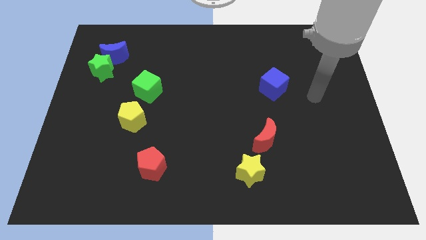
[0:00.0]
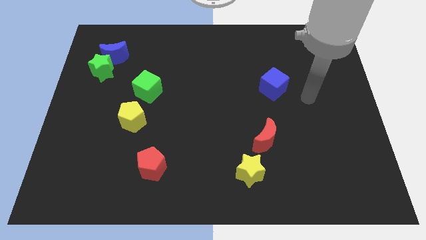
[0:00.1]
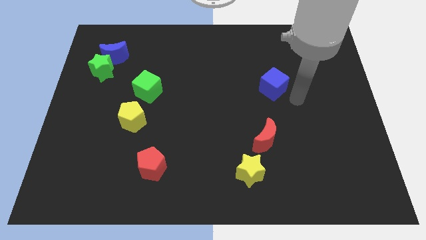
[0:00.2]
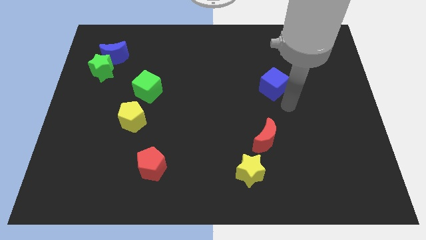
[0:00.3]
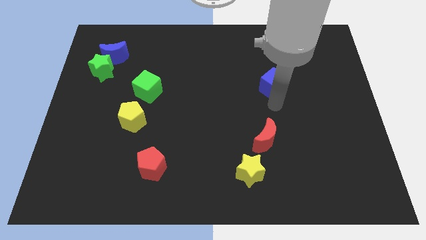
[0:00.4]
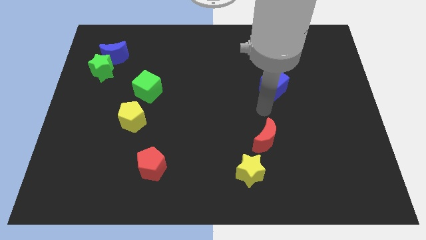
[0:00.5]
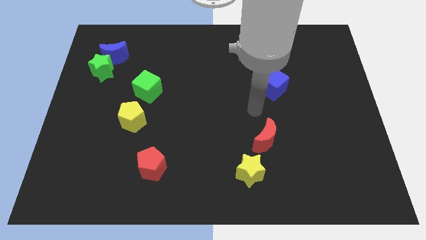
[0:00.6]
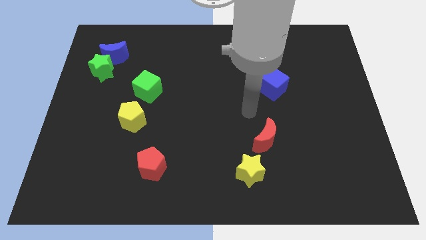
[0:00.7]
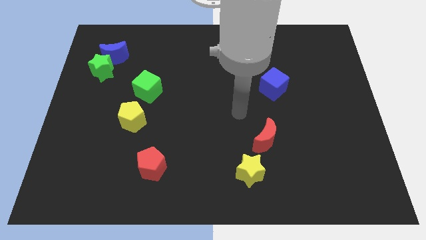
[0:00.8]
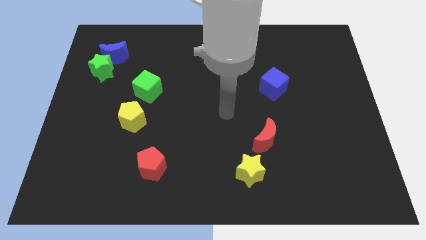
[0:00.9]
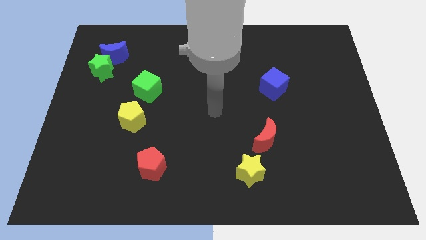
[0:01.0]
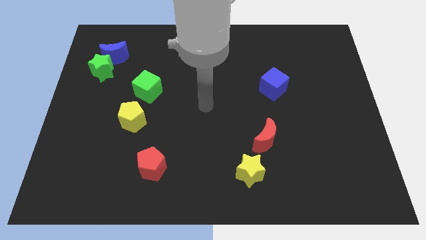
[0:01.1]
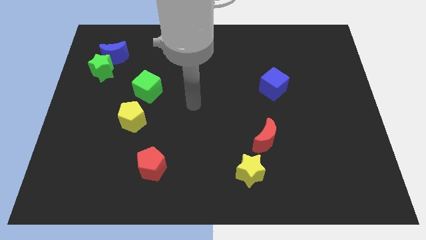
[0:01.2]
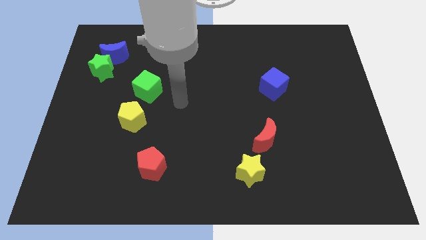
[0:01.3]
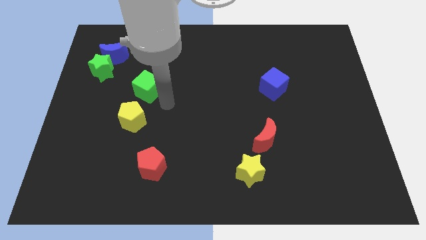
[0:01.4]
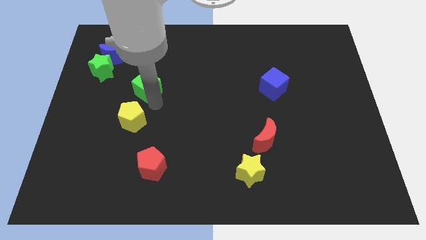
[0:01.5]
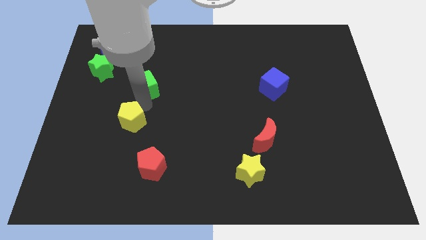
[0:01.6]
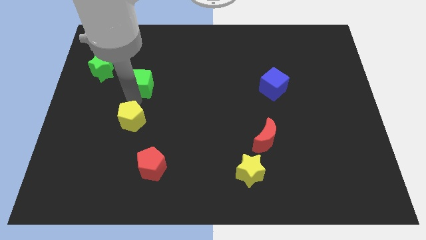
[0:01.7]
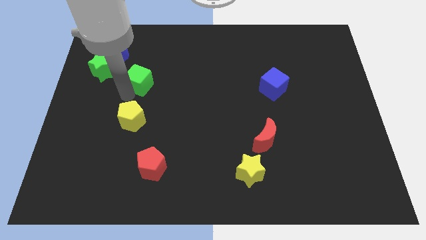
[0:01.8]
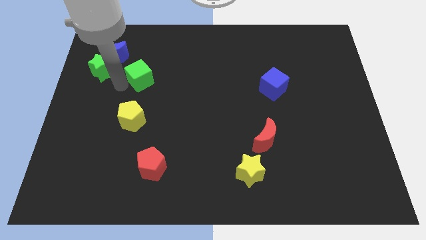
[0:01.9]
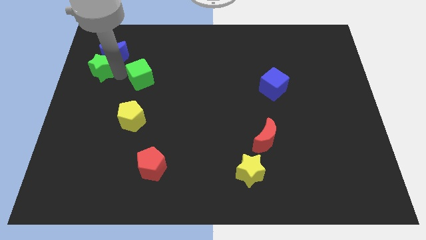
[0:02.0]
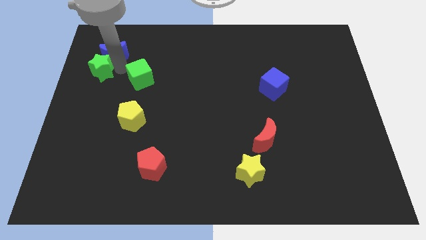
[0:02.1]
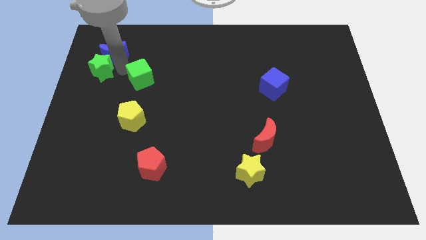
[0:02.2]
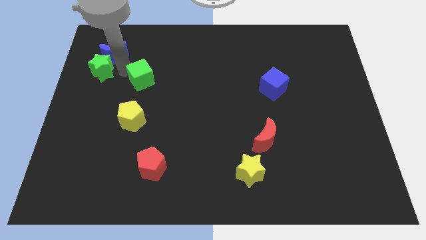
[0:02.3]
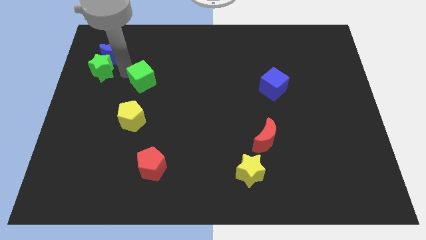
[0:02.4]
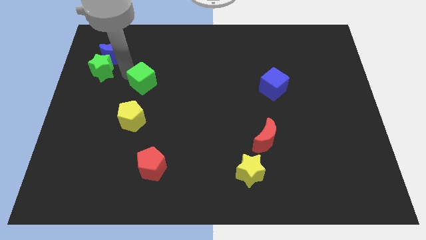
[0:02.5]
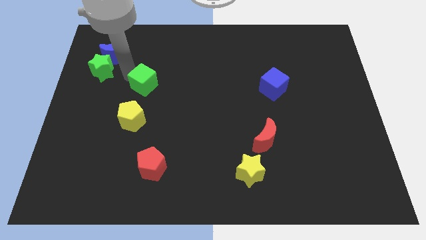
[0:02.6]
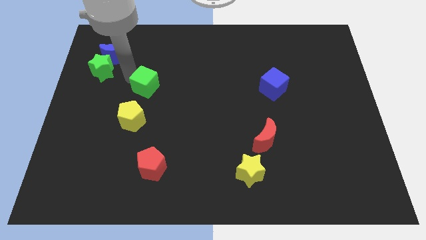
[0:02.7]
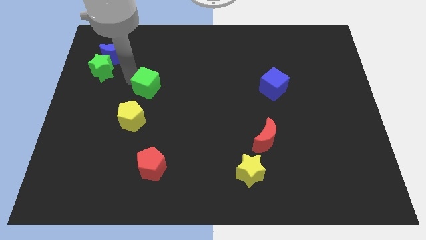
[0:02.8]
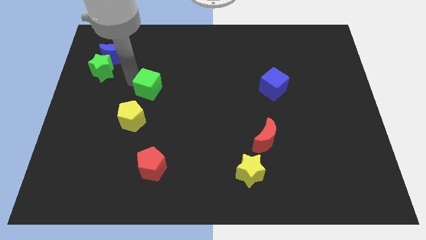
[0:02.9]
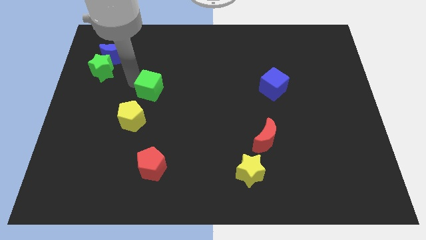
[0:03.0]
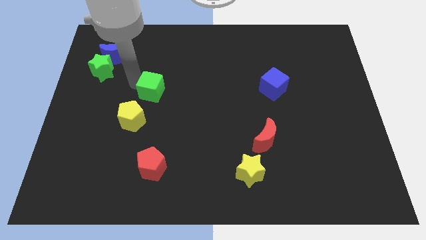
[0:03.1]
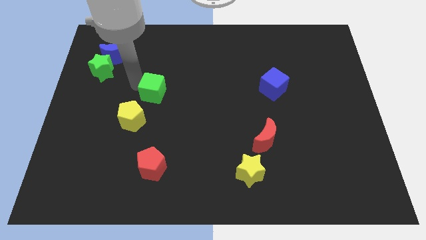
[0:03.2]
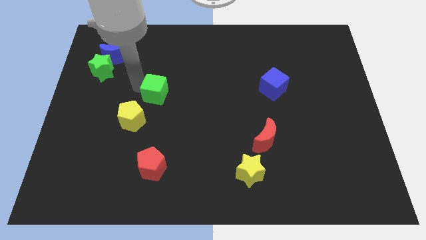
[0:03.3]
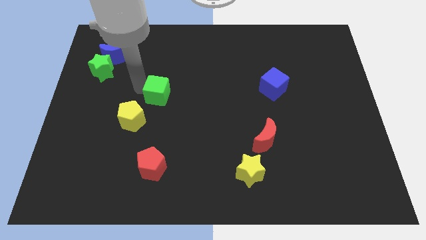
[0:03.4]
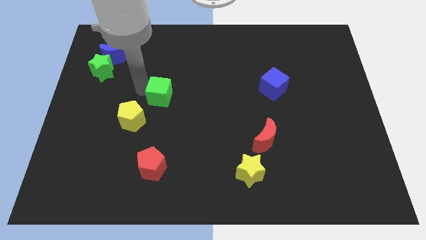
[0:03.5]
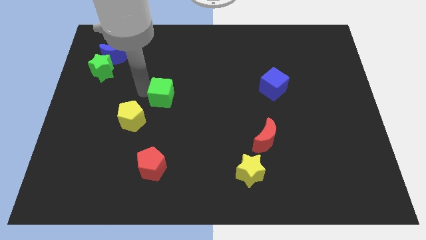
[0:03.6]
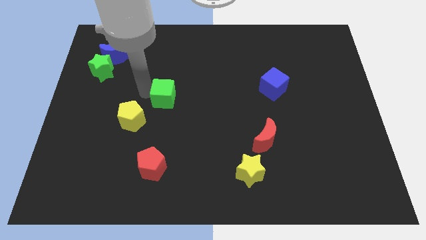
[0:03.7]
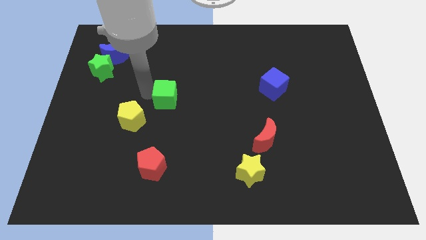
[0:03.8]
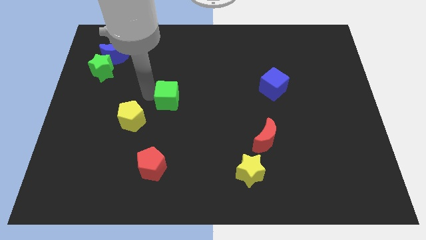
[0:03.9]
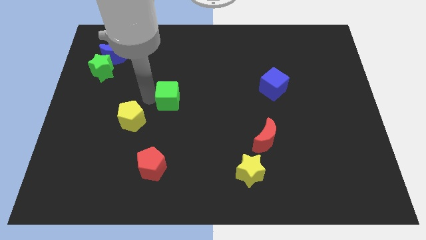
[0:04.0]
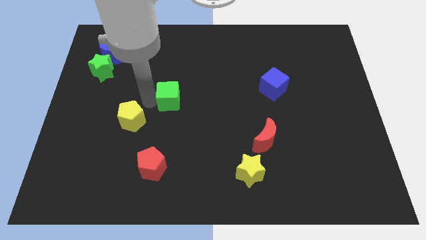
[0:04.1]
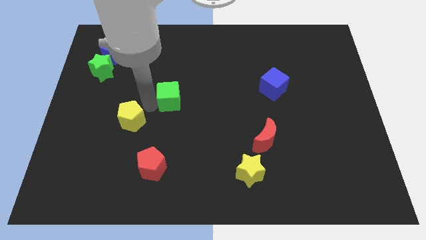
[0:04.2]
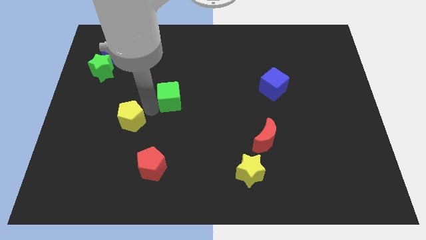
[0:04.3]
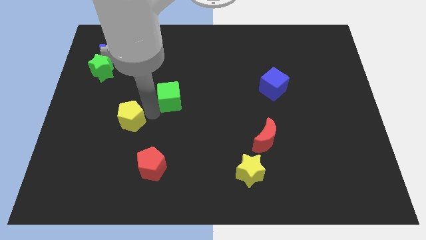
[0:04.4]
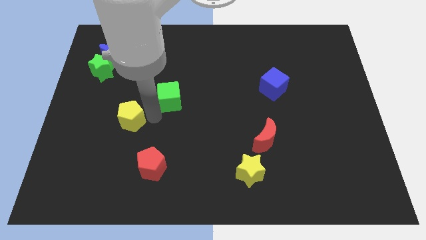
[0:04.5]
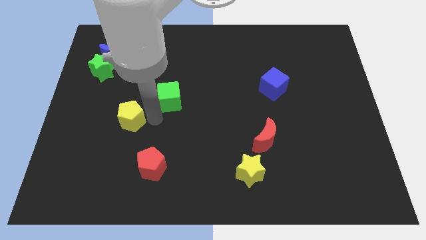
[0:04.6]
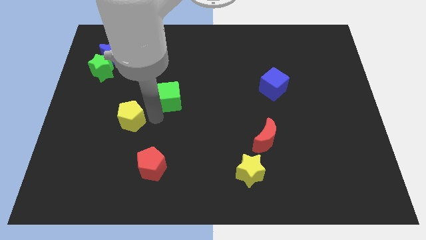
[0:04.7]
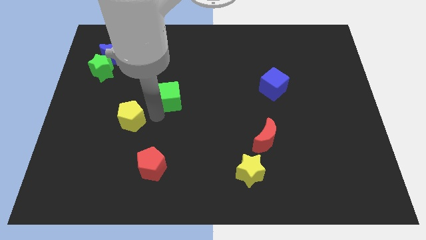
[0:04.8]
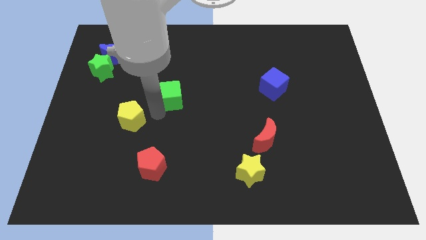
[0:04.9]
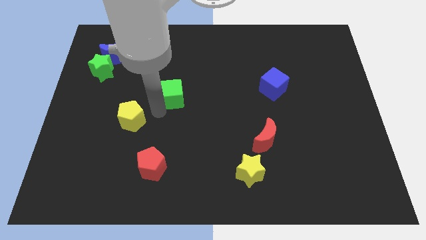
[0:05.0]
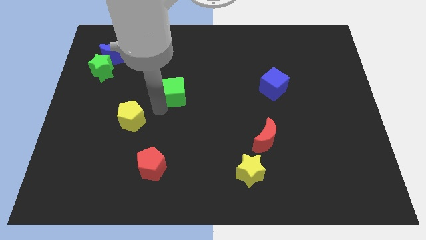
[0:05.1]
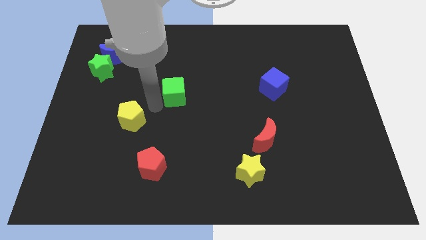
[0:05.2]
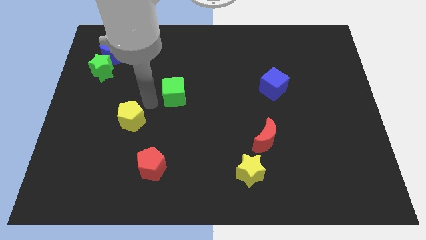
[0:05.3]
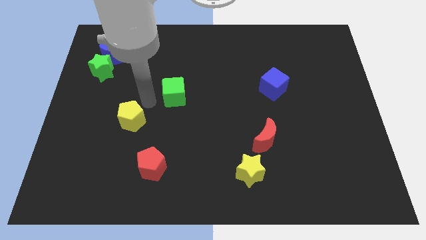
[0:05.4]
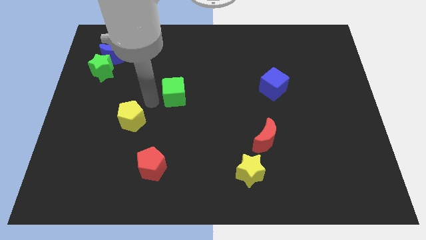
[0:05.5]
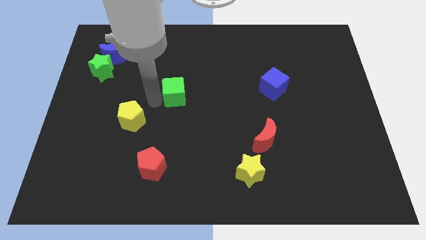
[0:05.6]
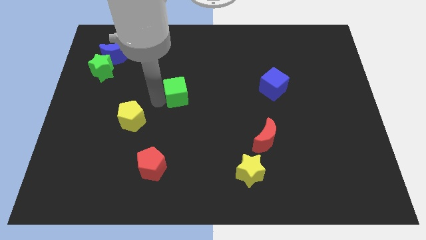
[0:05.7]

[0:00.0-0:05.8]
slide the green cube right somewhat

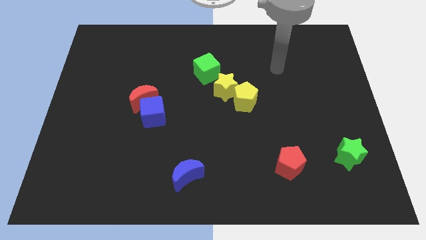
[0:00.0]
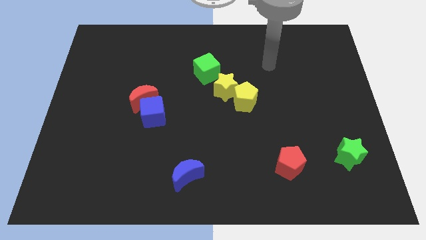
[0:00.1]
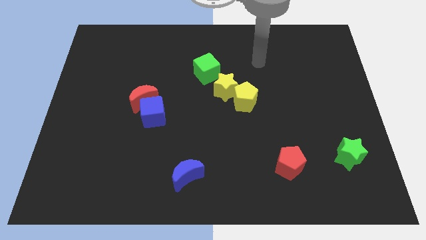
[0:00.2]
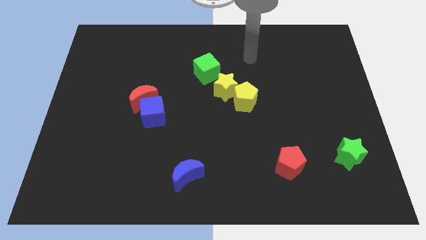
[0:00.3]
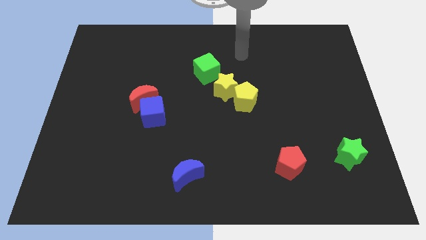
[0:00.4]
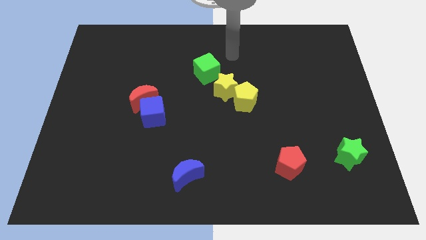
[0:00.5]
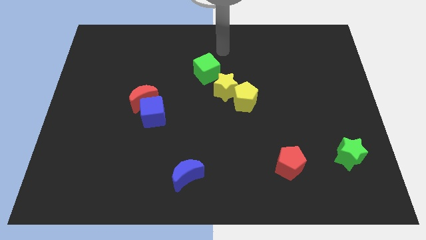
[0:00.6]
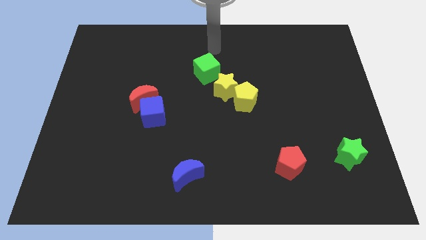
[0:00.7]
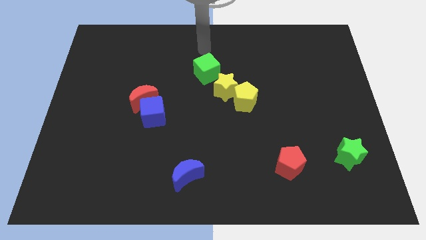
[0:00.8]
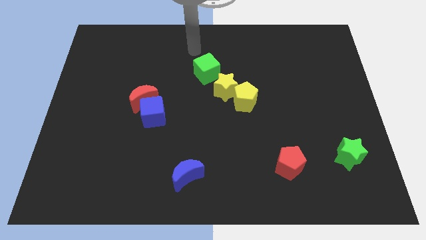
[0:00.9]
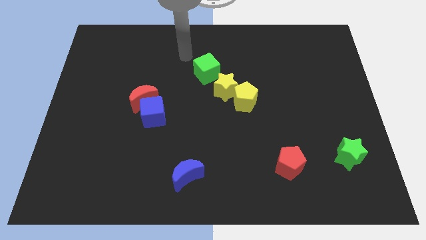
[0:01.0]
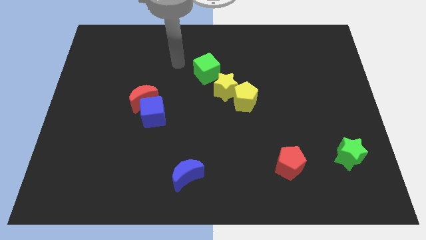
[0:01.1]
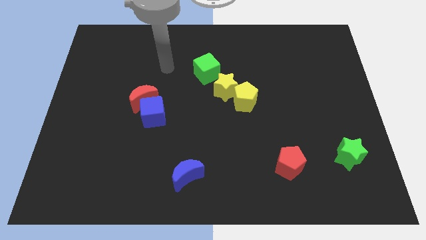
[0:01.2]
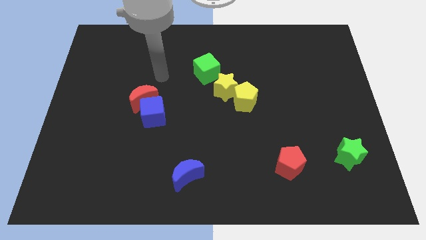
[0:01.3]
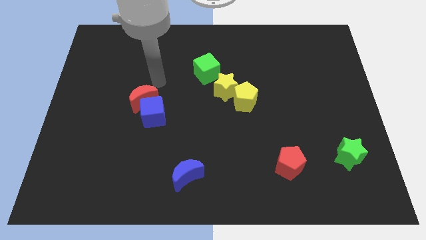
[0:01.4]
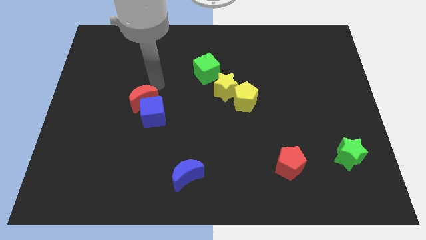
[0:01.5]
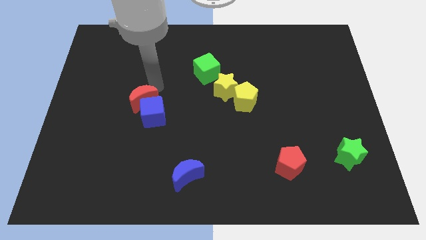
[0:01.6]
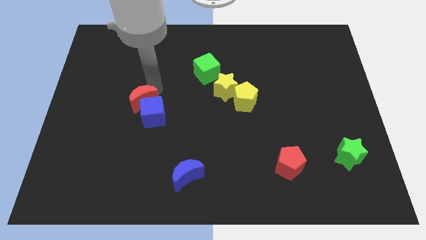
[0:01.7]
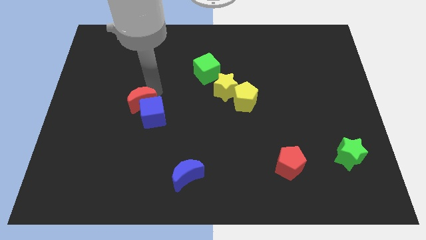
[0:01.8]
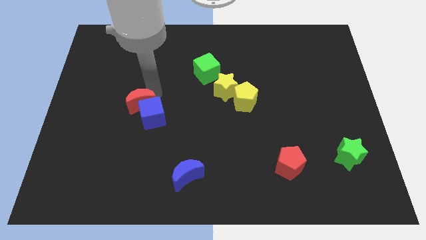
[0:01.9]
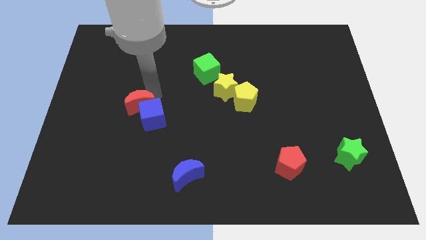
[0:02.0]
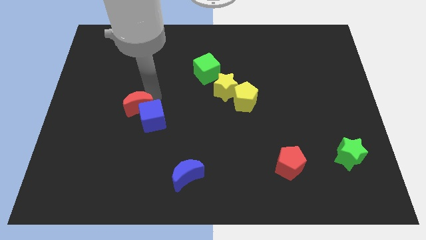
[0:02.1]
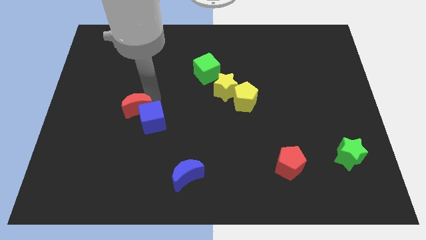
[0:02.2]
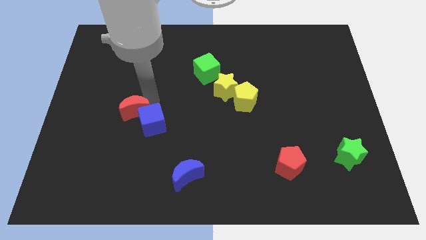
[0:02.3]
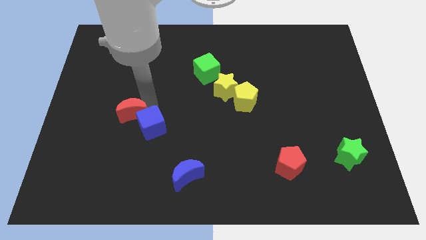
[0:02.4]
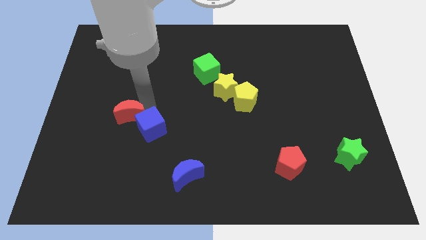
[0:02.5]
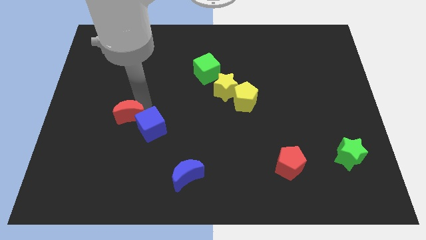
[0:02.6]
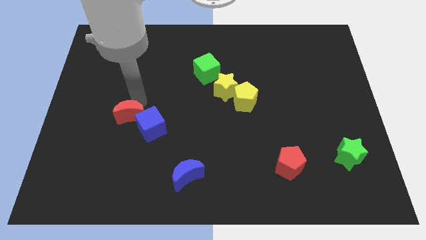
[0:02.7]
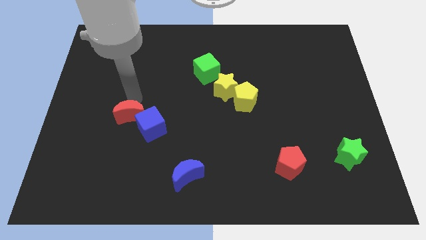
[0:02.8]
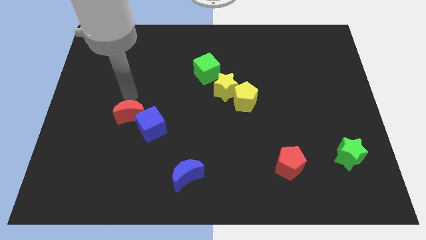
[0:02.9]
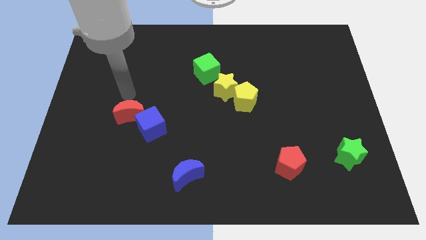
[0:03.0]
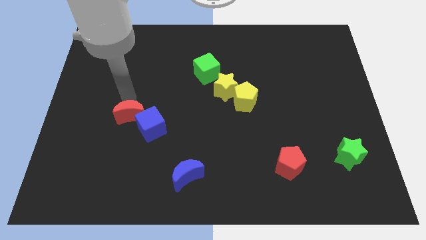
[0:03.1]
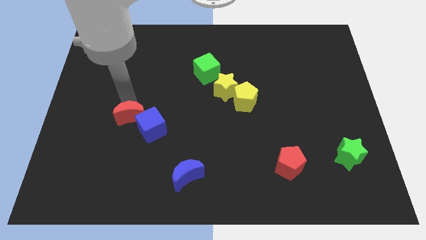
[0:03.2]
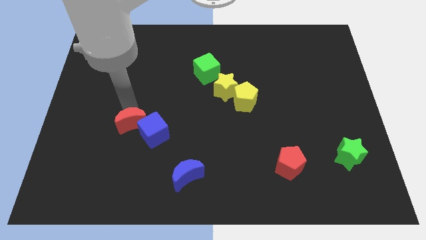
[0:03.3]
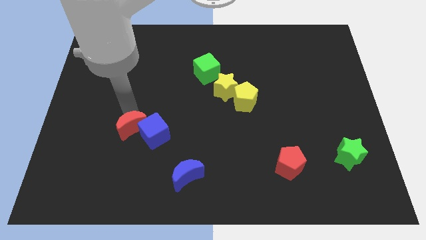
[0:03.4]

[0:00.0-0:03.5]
push the red moon a little bit down
